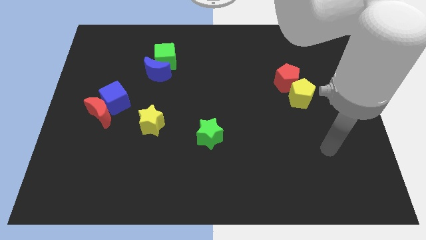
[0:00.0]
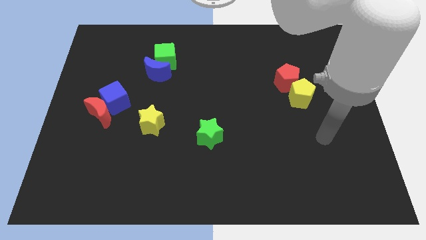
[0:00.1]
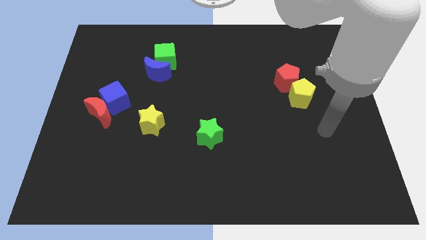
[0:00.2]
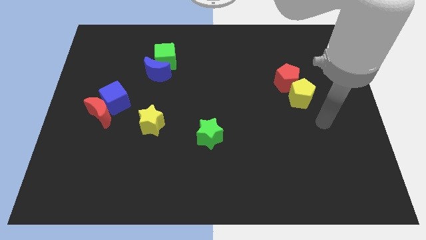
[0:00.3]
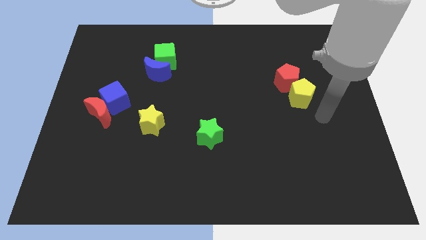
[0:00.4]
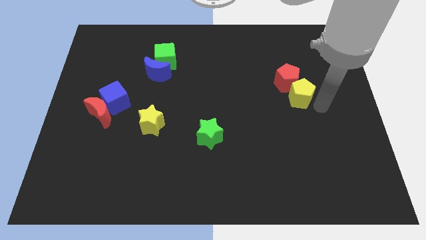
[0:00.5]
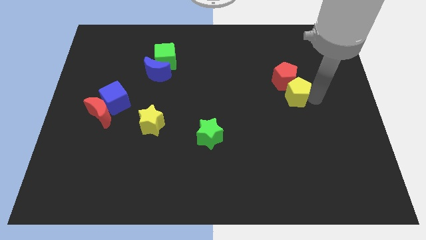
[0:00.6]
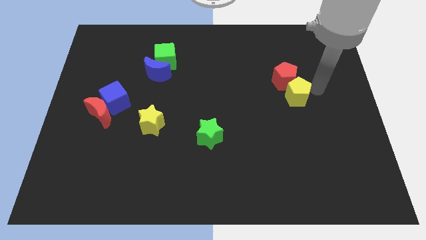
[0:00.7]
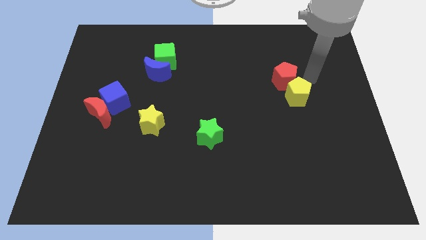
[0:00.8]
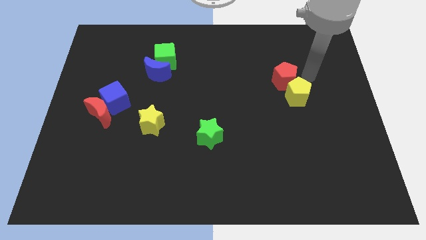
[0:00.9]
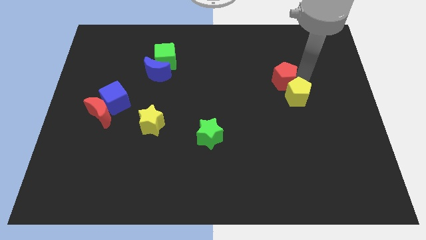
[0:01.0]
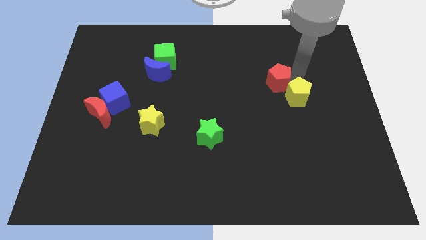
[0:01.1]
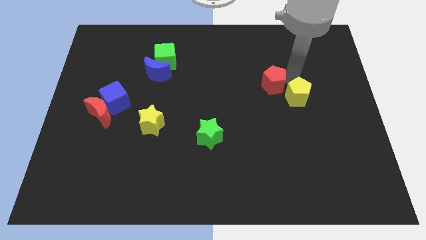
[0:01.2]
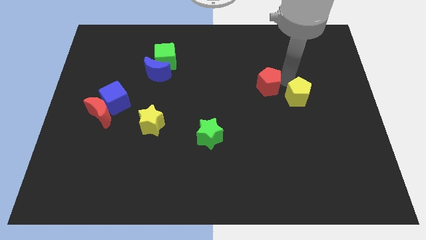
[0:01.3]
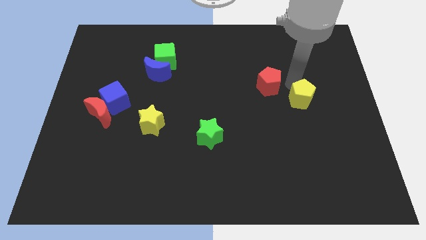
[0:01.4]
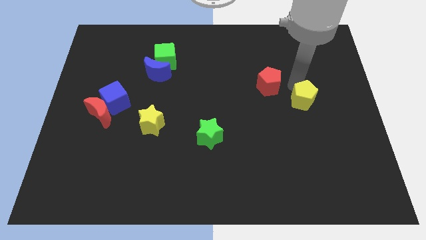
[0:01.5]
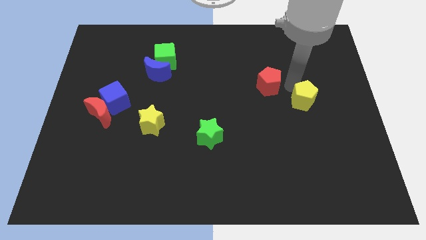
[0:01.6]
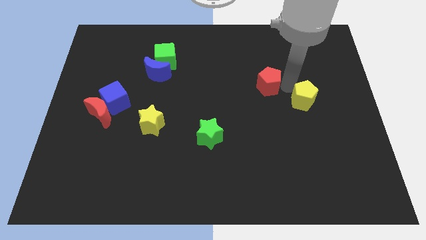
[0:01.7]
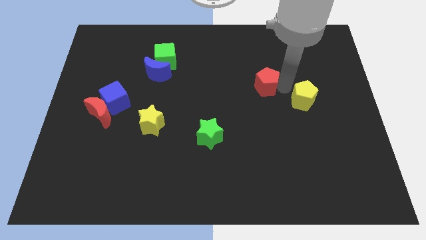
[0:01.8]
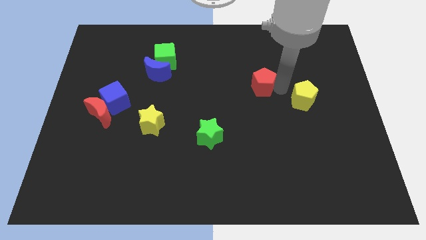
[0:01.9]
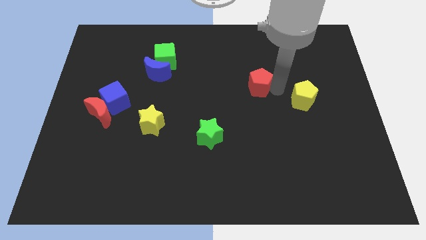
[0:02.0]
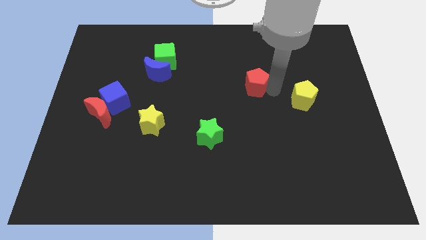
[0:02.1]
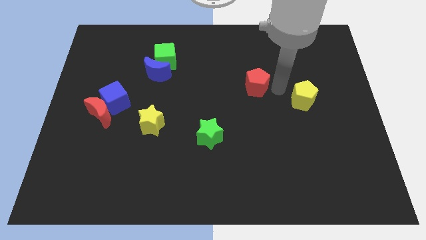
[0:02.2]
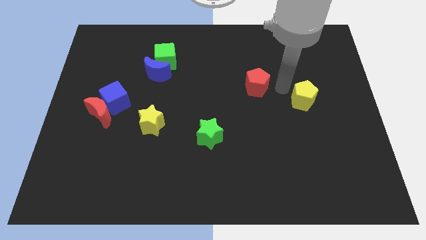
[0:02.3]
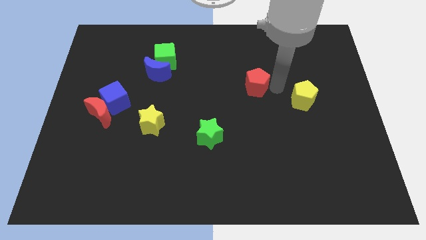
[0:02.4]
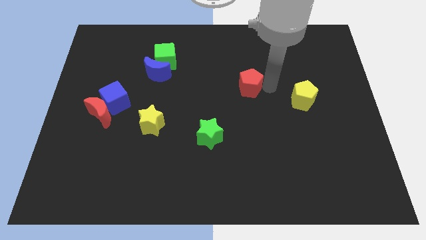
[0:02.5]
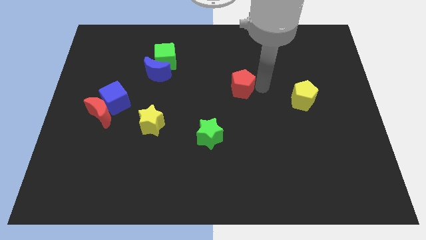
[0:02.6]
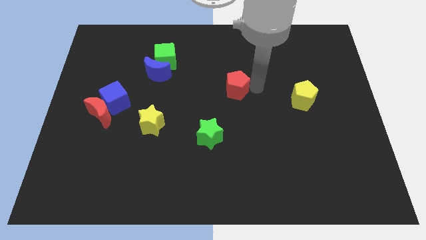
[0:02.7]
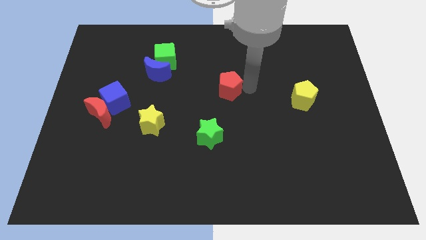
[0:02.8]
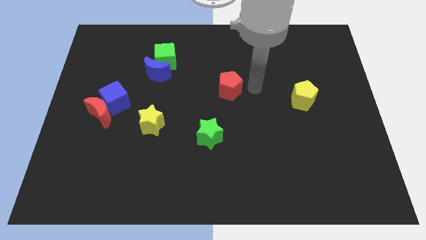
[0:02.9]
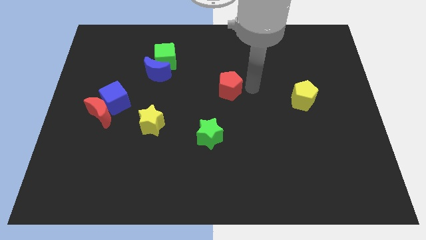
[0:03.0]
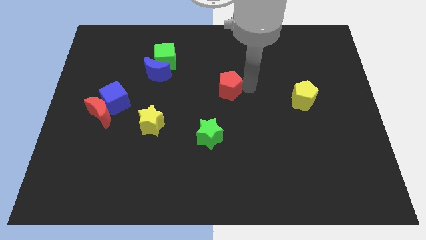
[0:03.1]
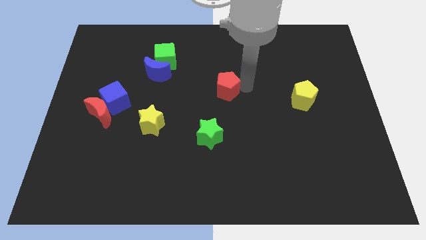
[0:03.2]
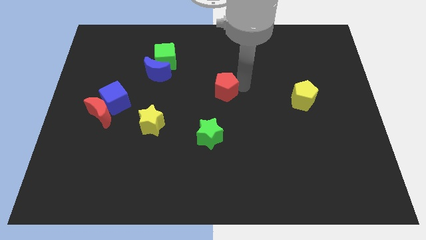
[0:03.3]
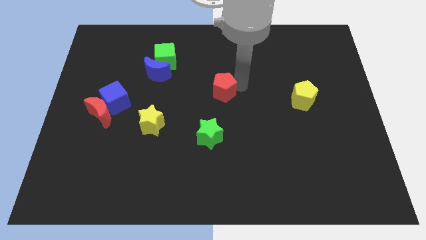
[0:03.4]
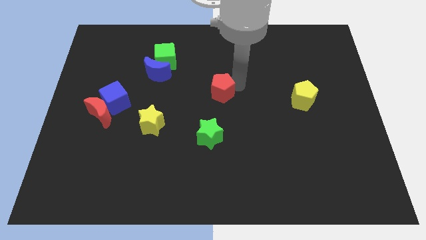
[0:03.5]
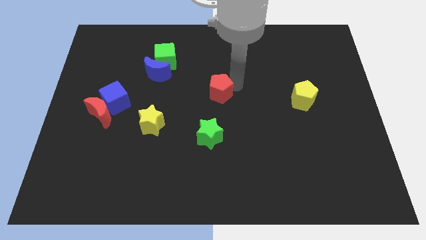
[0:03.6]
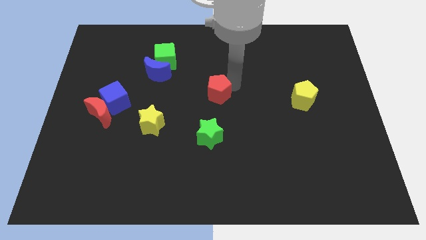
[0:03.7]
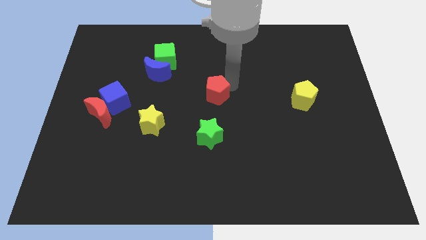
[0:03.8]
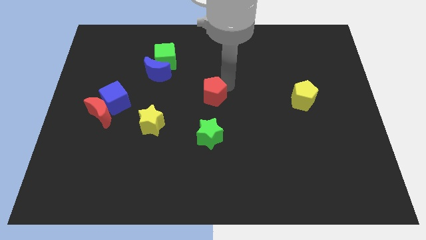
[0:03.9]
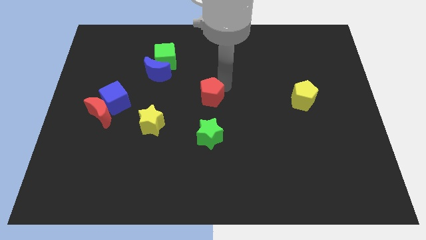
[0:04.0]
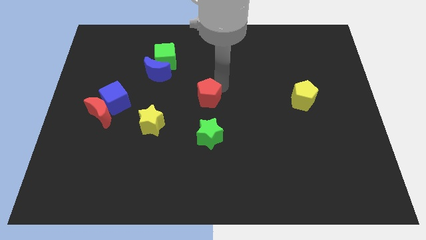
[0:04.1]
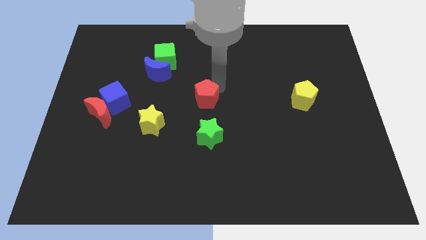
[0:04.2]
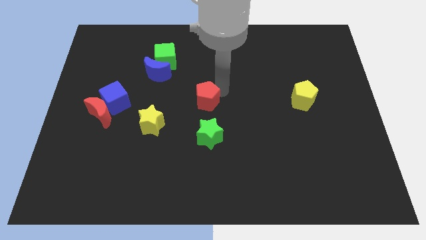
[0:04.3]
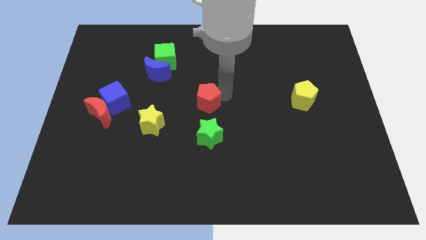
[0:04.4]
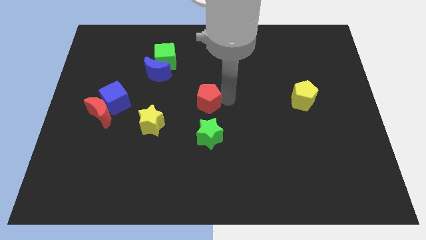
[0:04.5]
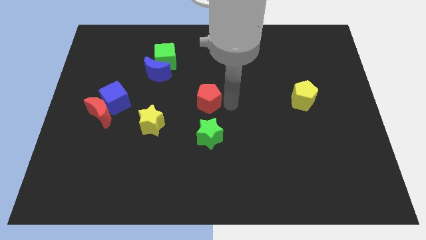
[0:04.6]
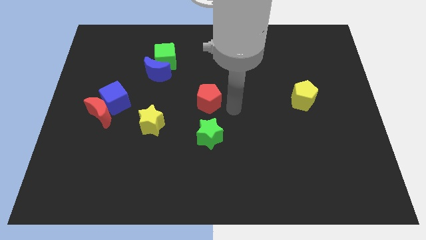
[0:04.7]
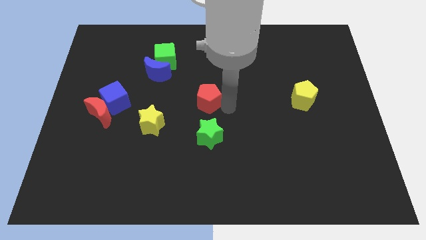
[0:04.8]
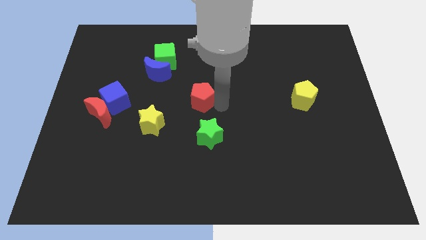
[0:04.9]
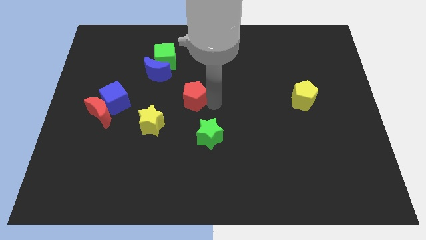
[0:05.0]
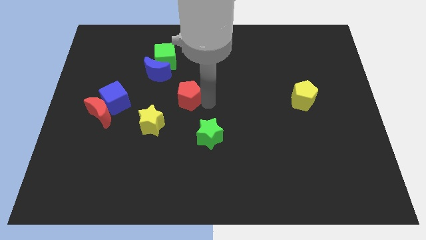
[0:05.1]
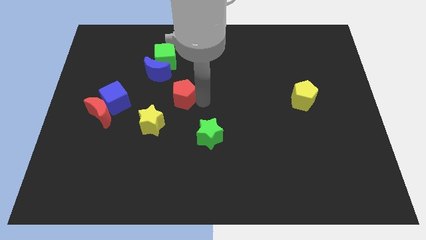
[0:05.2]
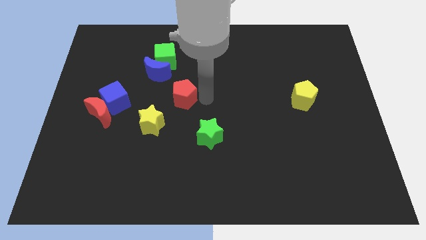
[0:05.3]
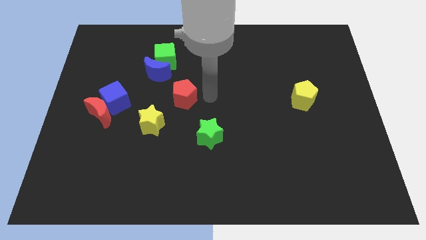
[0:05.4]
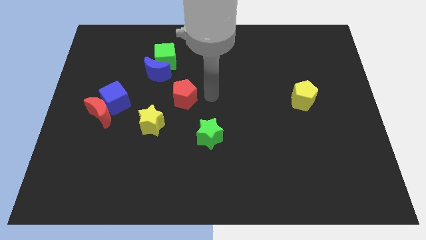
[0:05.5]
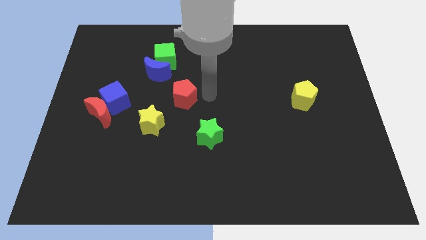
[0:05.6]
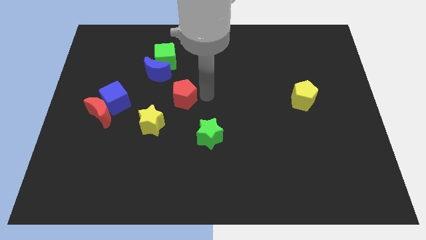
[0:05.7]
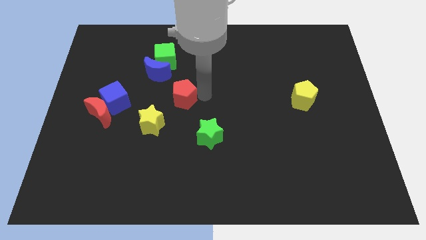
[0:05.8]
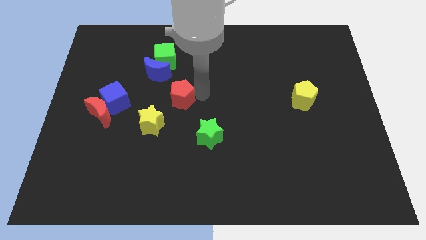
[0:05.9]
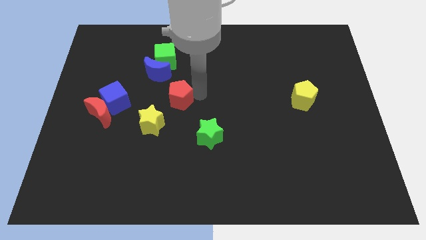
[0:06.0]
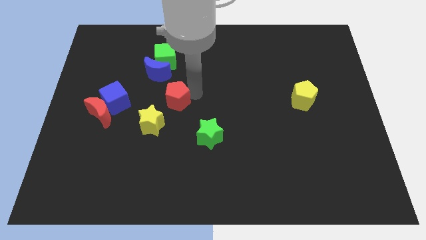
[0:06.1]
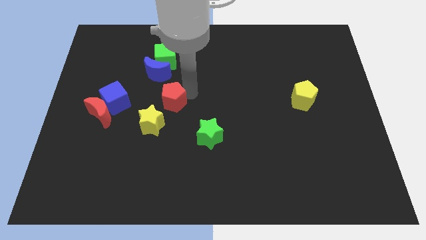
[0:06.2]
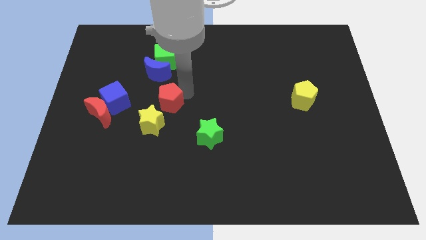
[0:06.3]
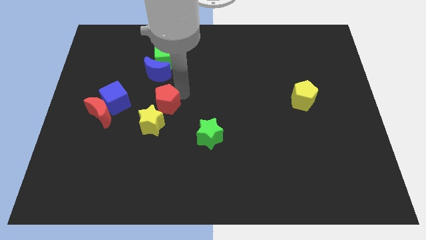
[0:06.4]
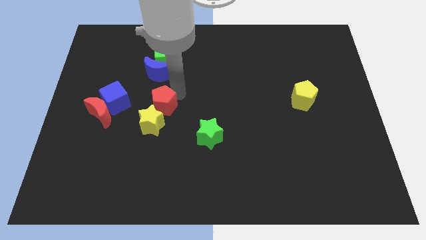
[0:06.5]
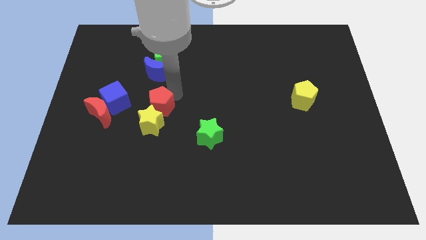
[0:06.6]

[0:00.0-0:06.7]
slide the red pentagon diagonally up and to the left of the yellow star
